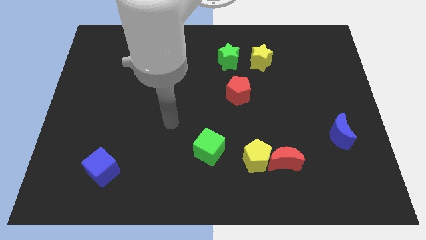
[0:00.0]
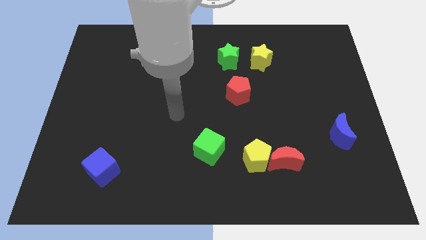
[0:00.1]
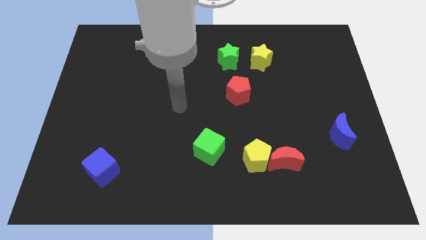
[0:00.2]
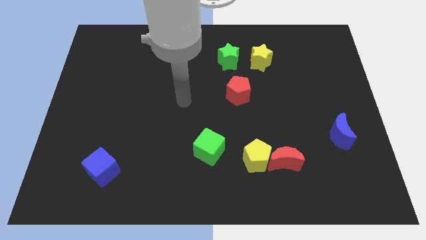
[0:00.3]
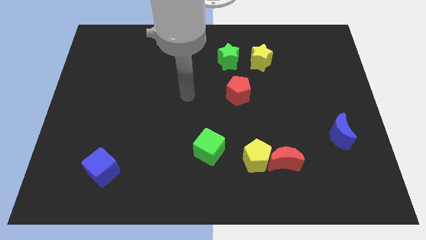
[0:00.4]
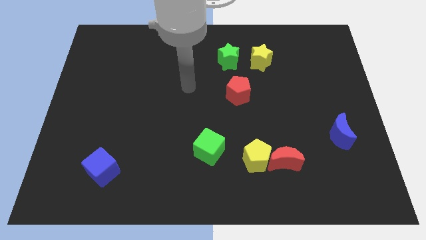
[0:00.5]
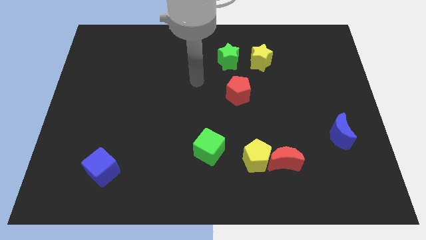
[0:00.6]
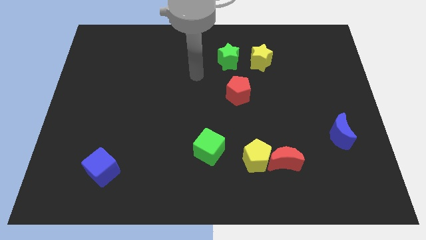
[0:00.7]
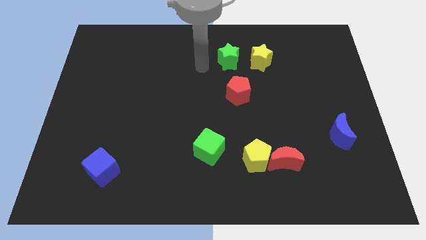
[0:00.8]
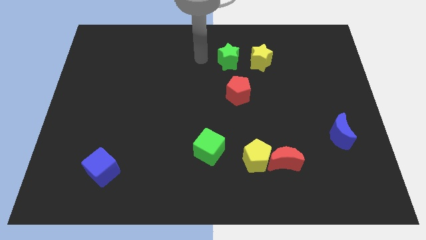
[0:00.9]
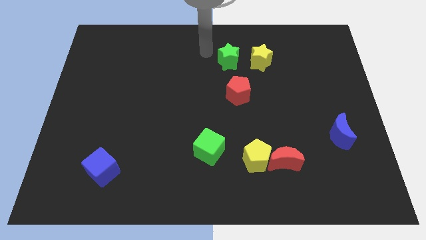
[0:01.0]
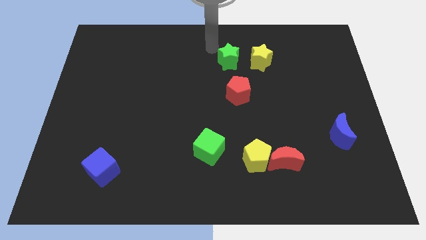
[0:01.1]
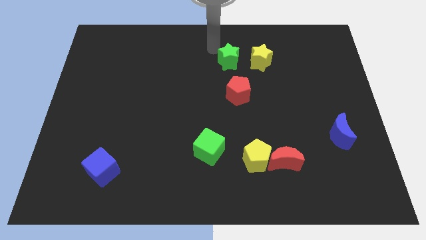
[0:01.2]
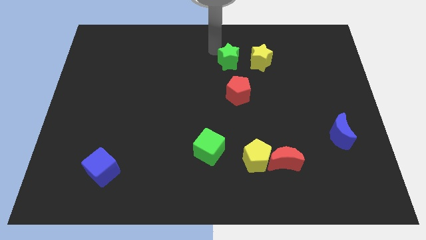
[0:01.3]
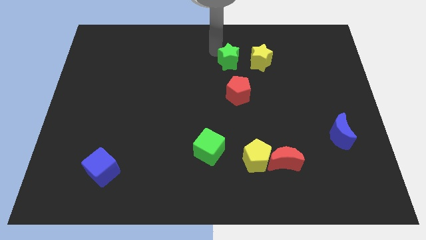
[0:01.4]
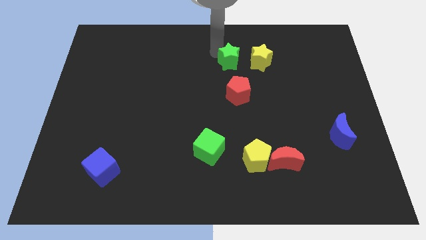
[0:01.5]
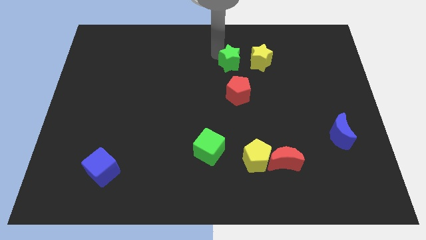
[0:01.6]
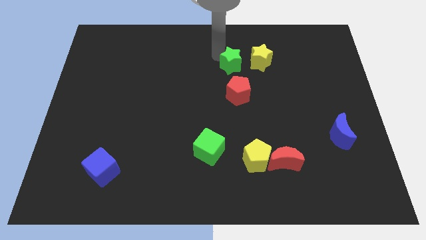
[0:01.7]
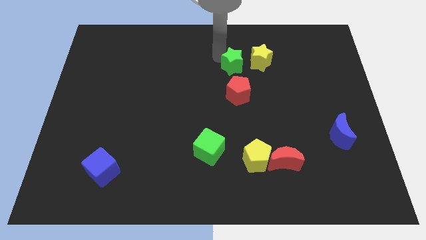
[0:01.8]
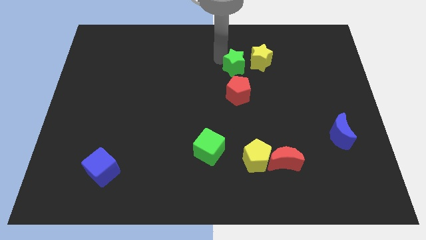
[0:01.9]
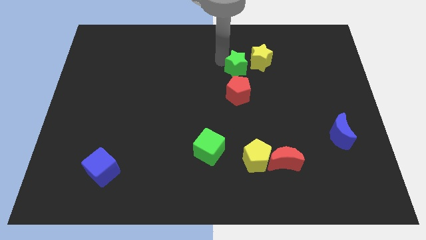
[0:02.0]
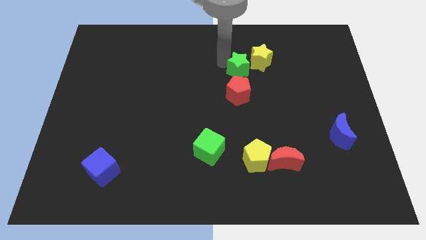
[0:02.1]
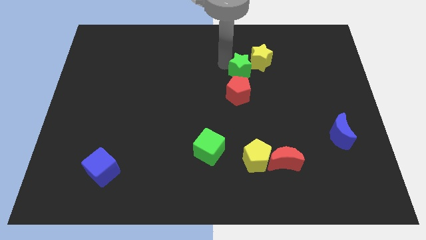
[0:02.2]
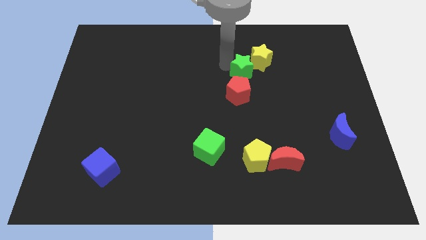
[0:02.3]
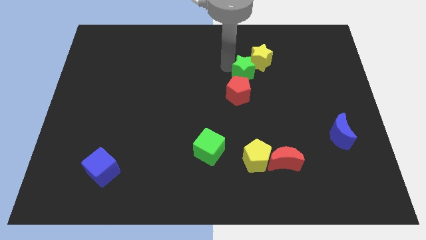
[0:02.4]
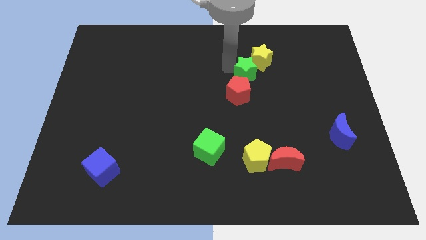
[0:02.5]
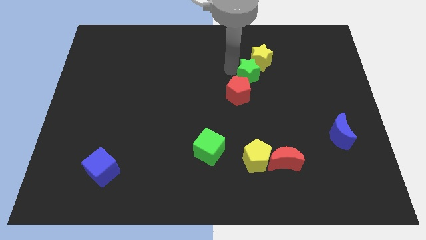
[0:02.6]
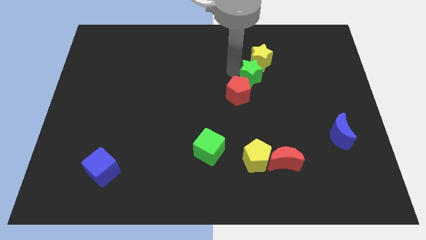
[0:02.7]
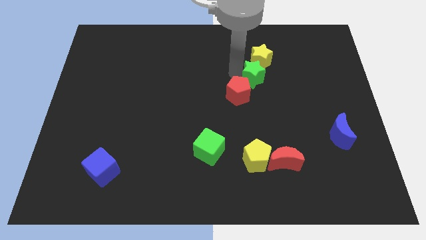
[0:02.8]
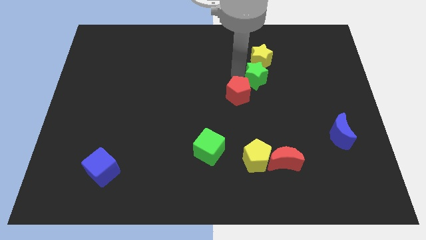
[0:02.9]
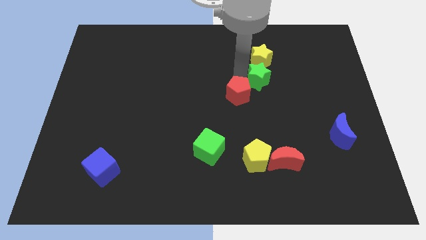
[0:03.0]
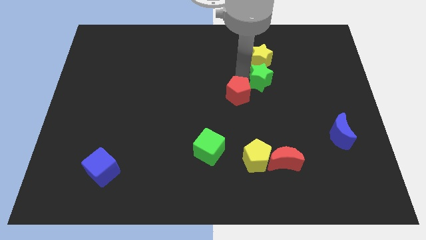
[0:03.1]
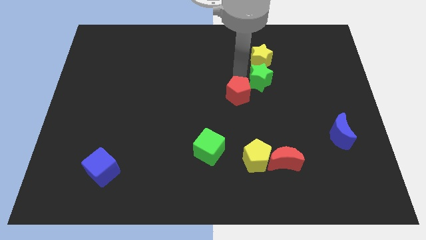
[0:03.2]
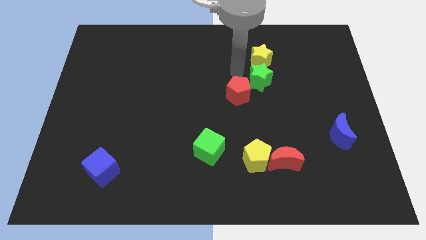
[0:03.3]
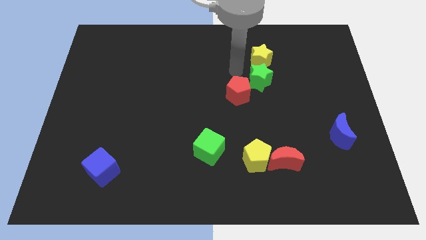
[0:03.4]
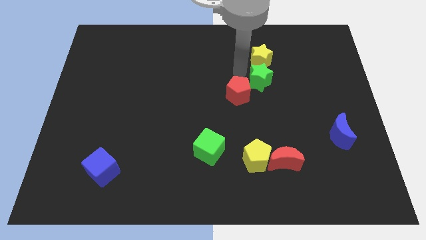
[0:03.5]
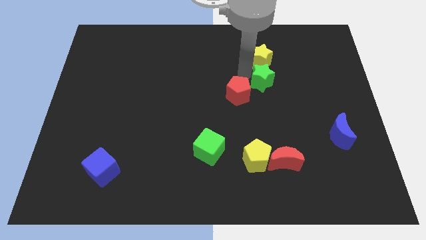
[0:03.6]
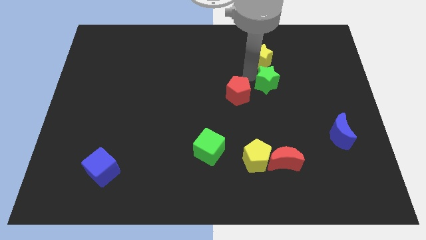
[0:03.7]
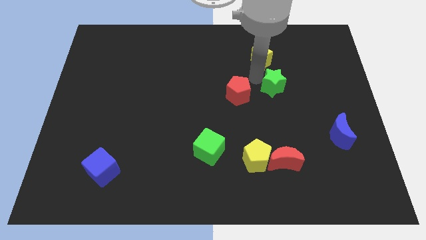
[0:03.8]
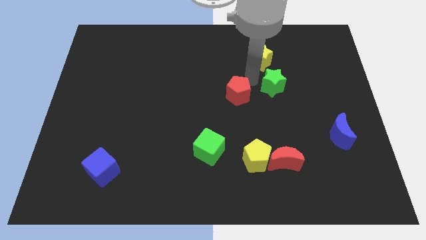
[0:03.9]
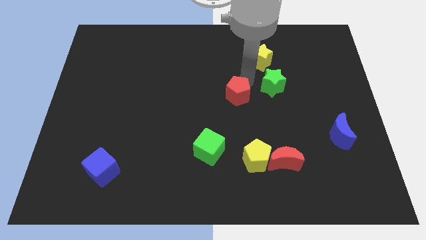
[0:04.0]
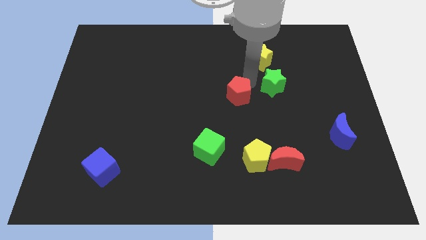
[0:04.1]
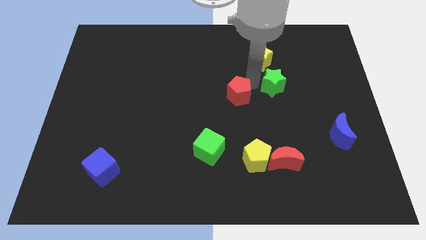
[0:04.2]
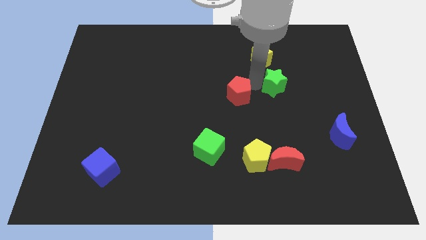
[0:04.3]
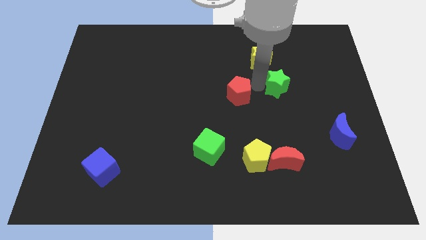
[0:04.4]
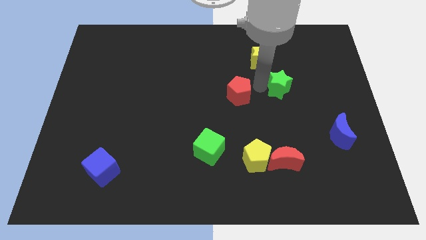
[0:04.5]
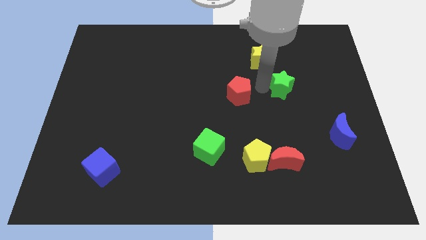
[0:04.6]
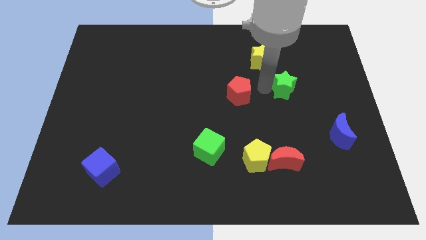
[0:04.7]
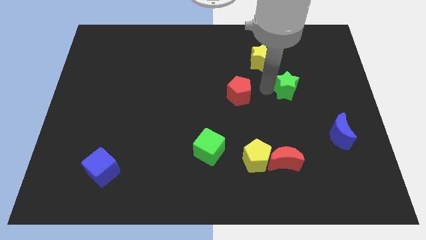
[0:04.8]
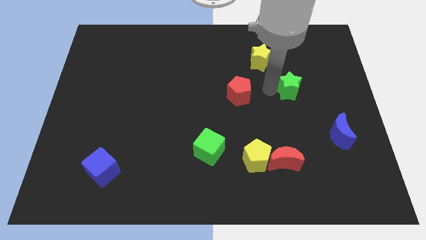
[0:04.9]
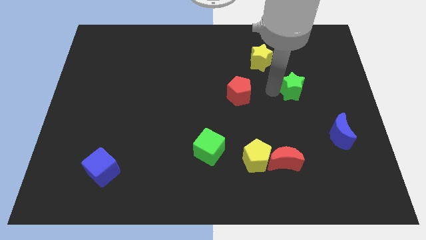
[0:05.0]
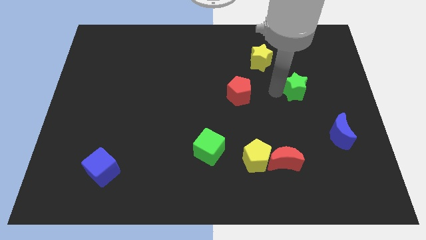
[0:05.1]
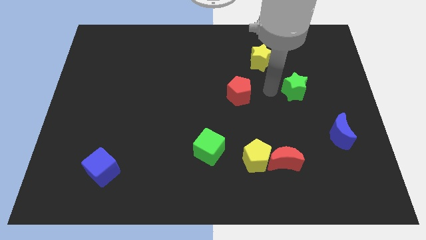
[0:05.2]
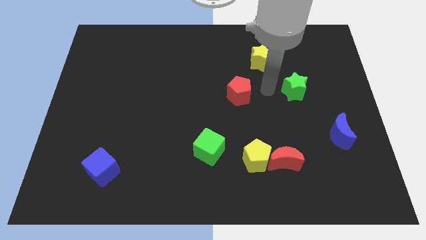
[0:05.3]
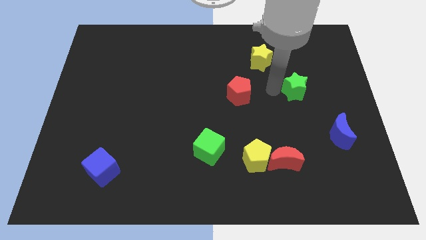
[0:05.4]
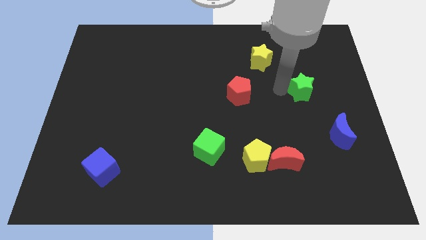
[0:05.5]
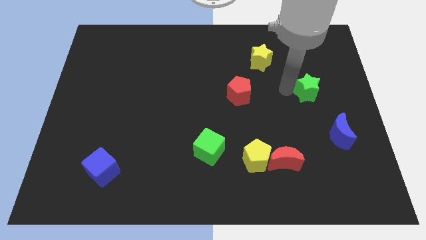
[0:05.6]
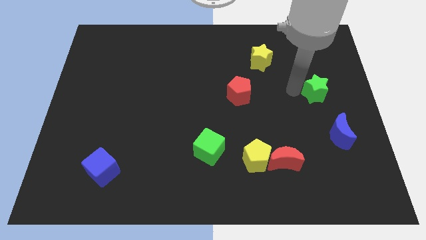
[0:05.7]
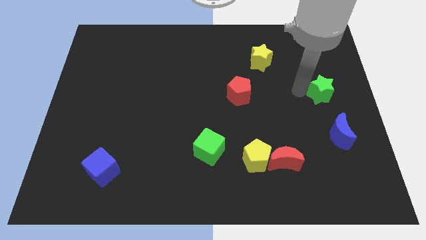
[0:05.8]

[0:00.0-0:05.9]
move the green star to the center right

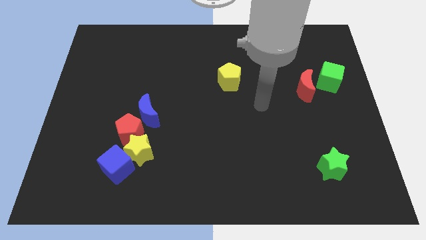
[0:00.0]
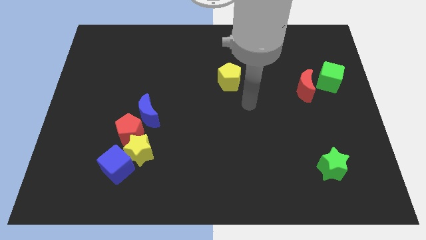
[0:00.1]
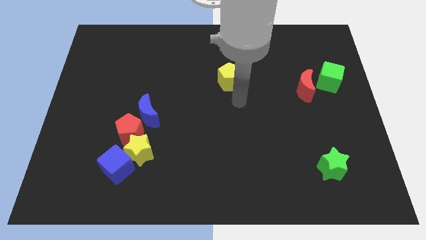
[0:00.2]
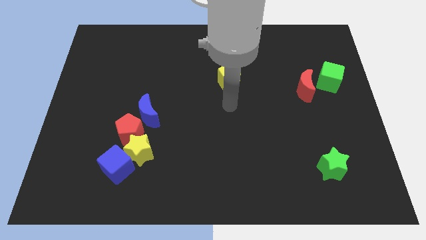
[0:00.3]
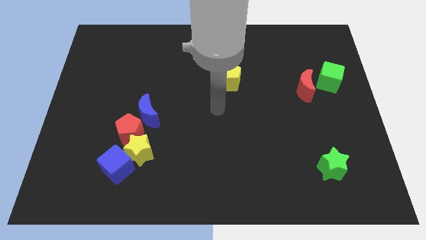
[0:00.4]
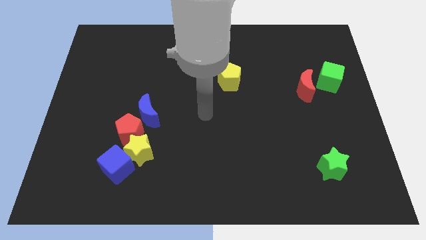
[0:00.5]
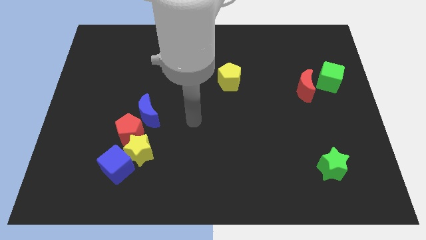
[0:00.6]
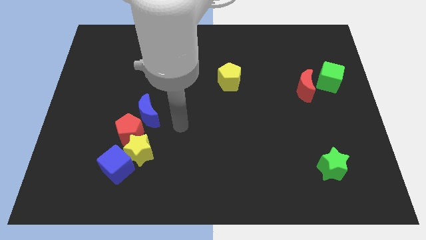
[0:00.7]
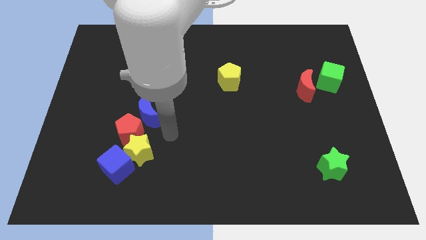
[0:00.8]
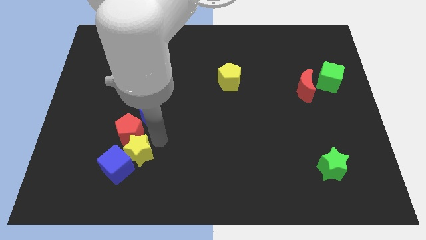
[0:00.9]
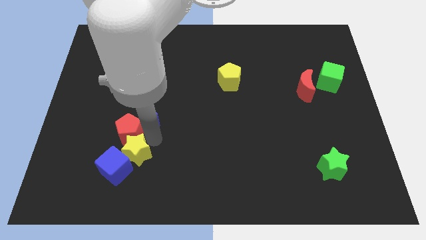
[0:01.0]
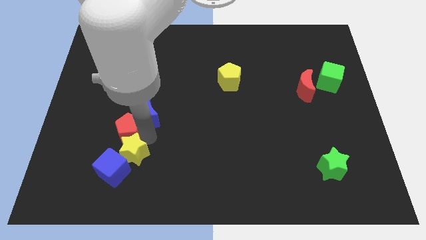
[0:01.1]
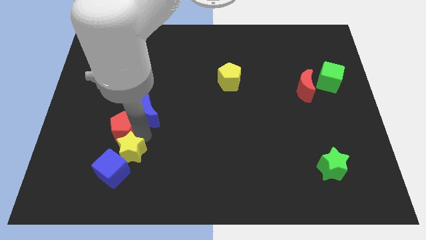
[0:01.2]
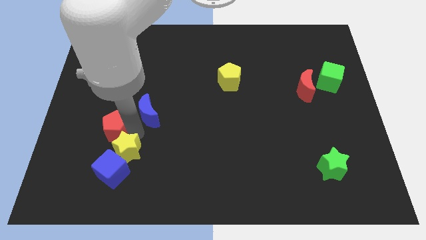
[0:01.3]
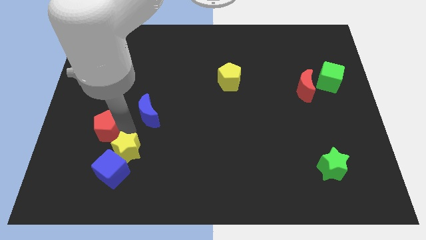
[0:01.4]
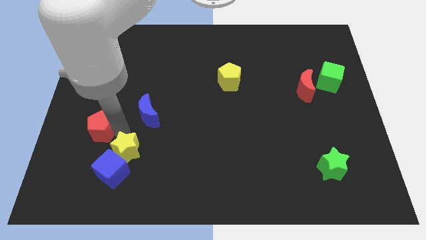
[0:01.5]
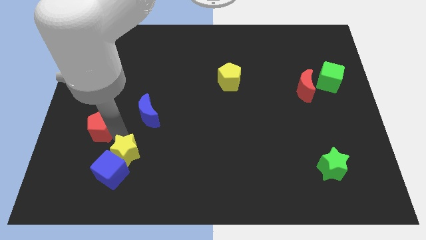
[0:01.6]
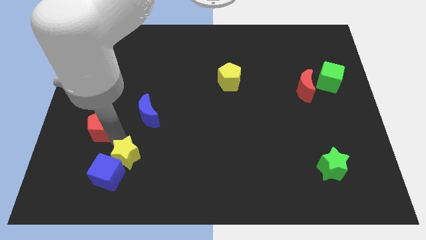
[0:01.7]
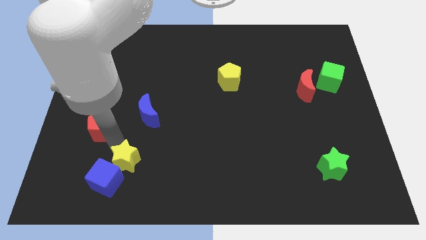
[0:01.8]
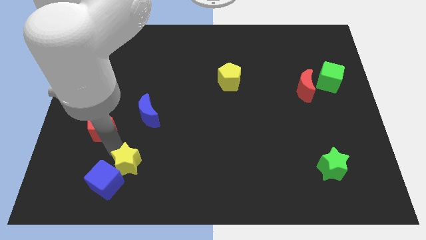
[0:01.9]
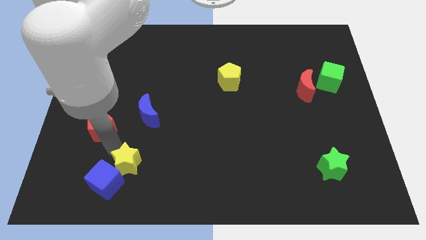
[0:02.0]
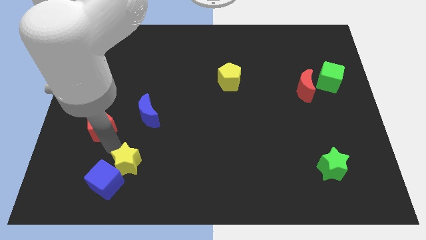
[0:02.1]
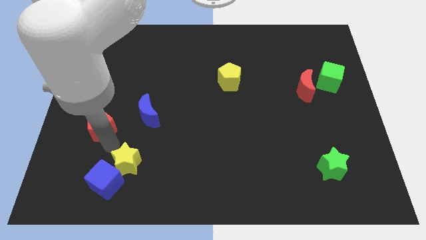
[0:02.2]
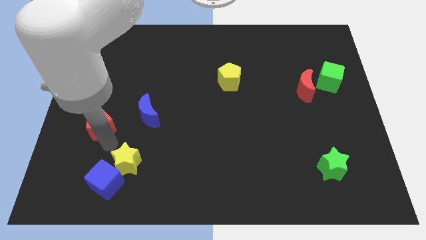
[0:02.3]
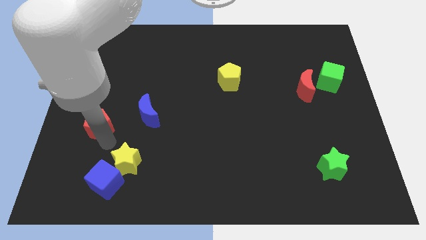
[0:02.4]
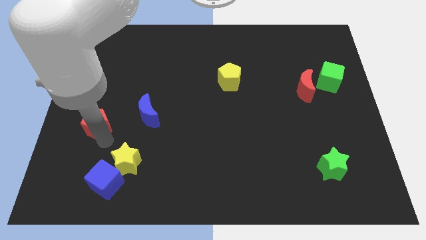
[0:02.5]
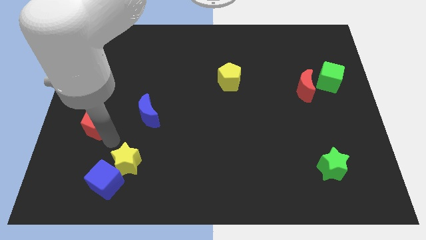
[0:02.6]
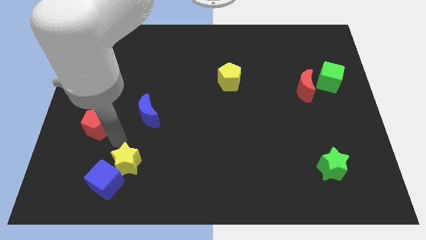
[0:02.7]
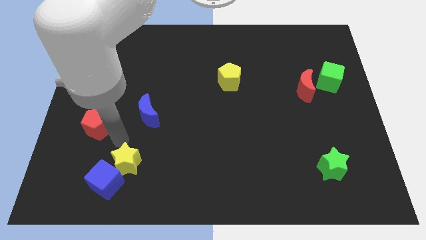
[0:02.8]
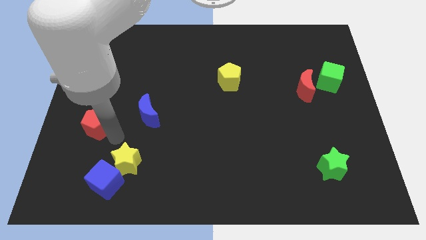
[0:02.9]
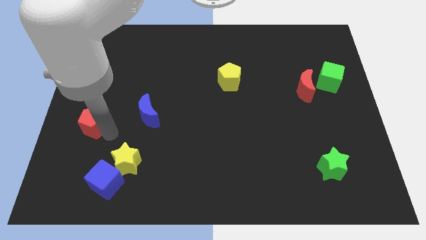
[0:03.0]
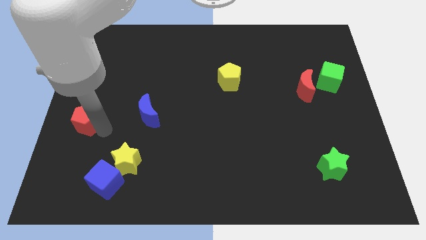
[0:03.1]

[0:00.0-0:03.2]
push the red pentagon to the center left
